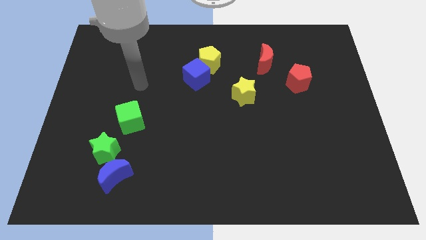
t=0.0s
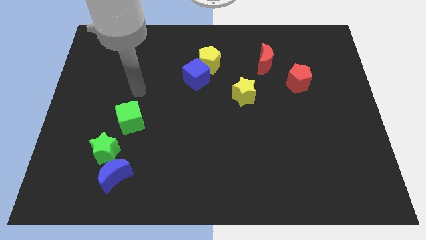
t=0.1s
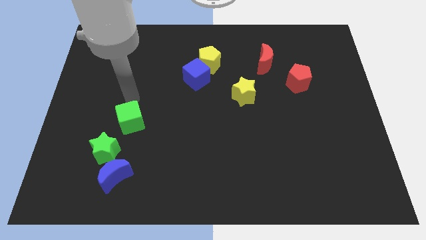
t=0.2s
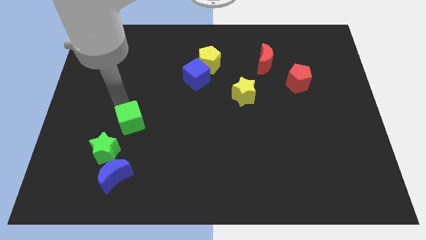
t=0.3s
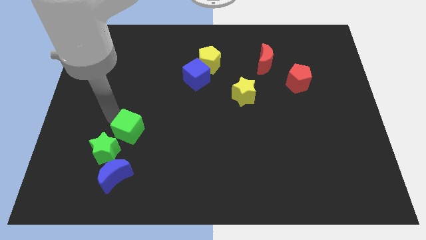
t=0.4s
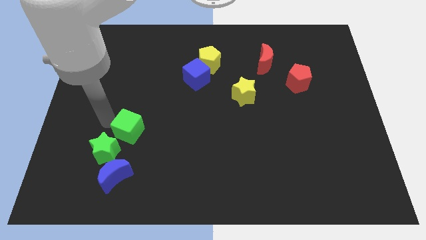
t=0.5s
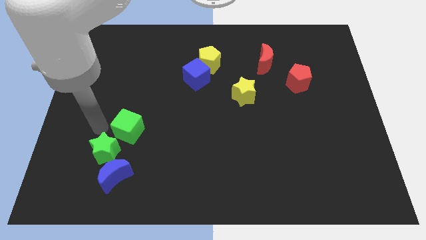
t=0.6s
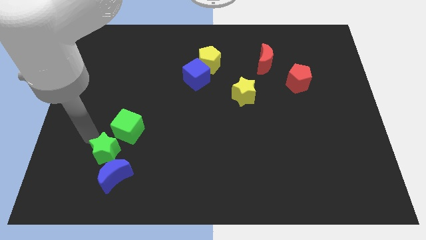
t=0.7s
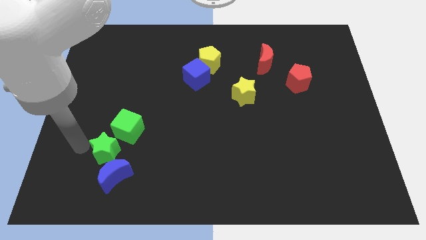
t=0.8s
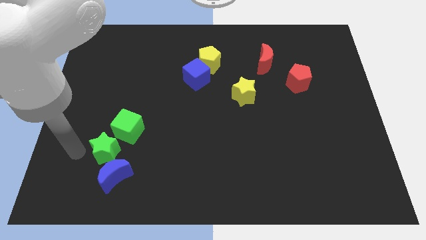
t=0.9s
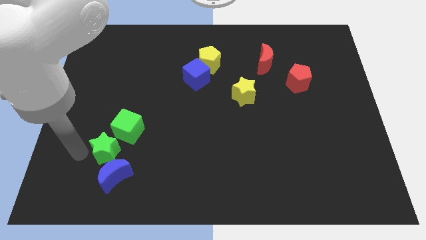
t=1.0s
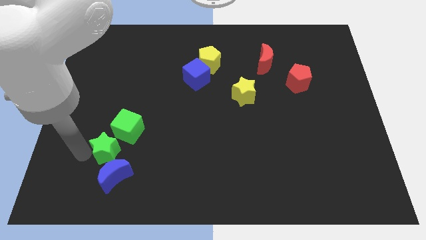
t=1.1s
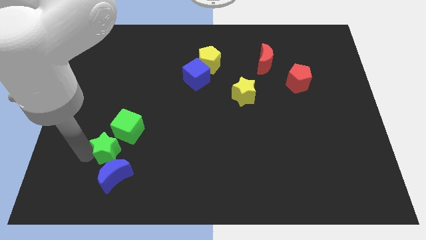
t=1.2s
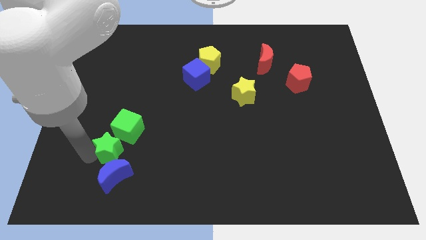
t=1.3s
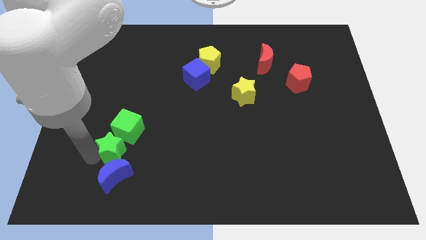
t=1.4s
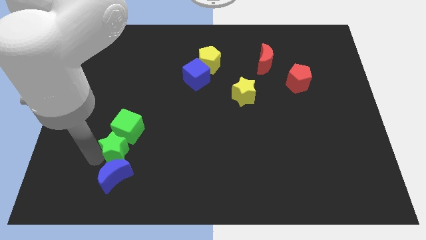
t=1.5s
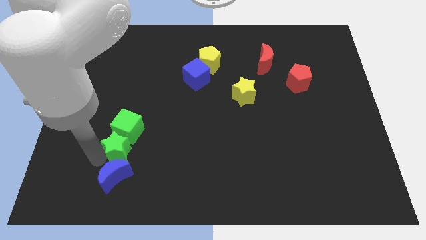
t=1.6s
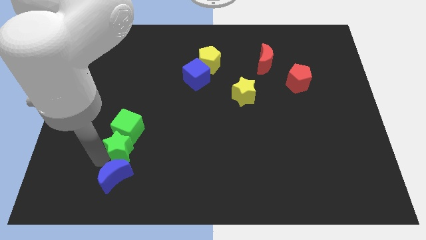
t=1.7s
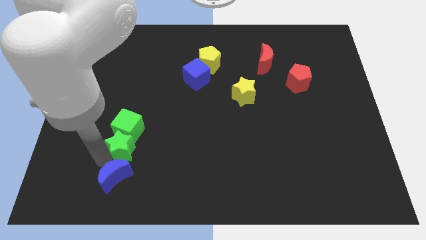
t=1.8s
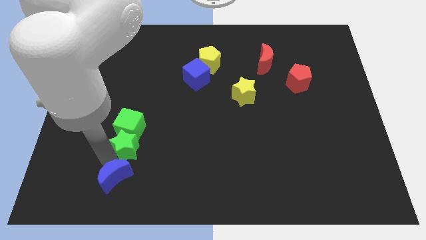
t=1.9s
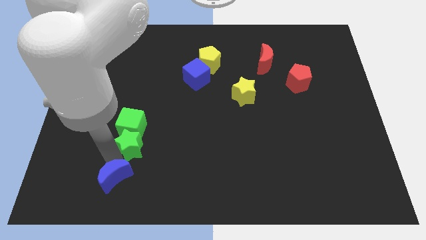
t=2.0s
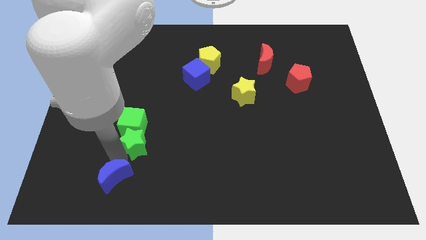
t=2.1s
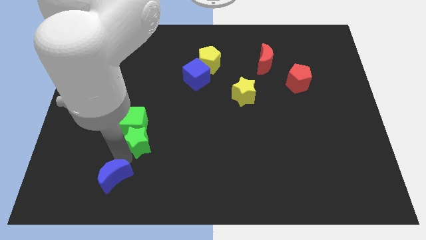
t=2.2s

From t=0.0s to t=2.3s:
slightly push the green star right

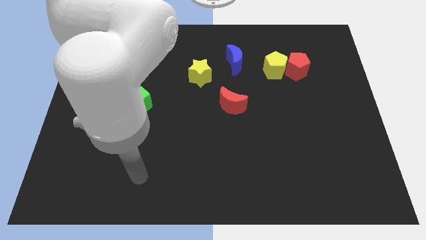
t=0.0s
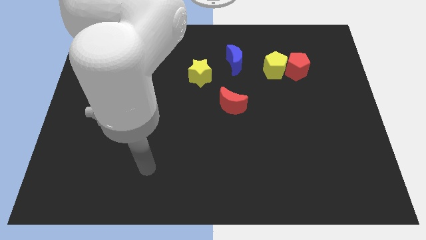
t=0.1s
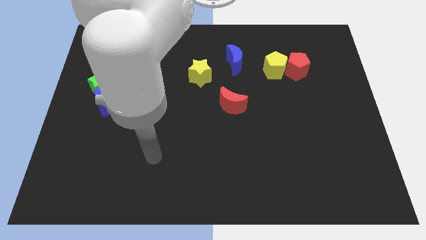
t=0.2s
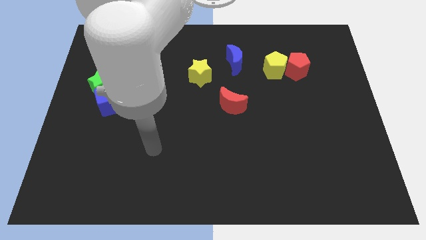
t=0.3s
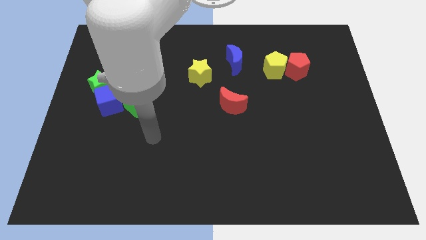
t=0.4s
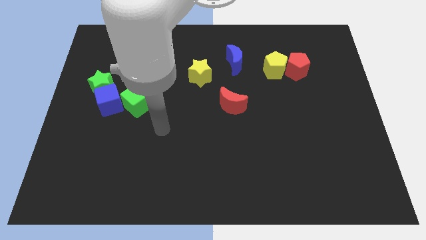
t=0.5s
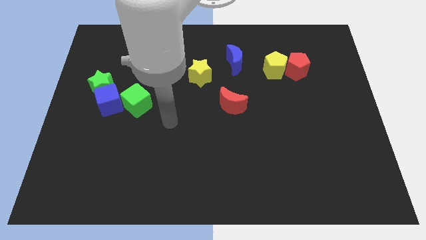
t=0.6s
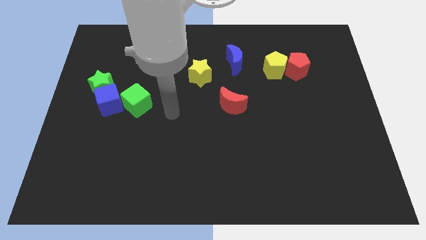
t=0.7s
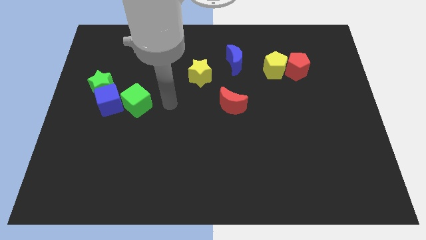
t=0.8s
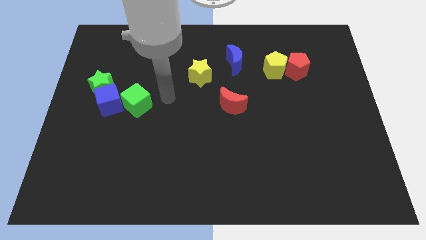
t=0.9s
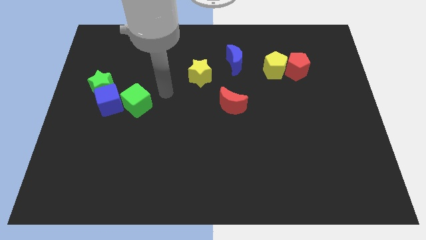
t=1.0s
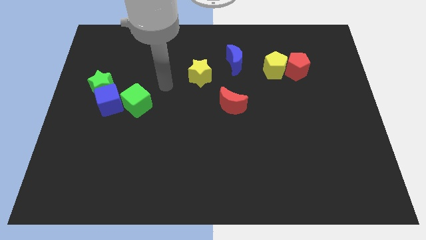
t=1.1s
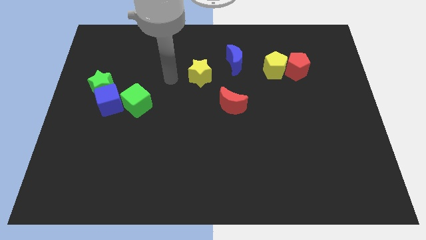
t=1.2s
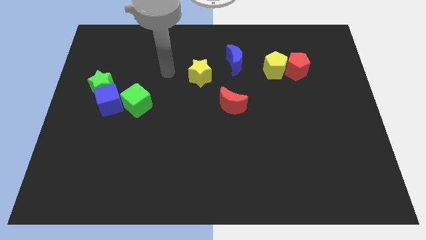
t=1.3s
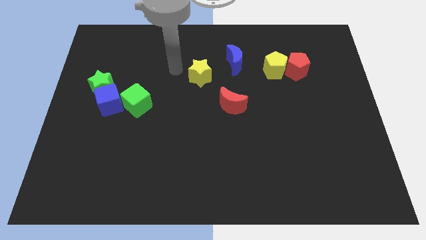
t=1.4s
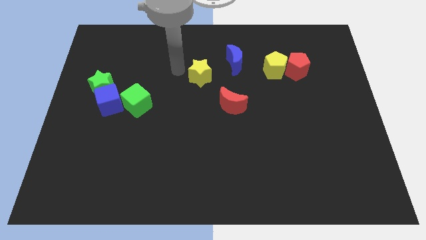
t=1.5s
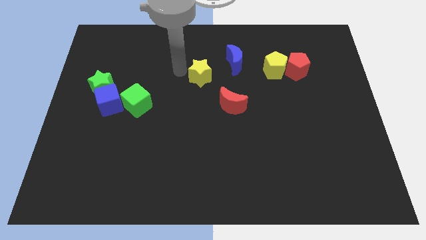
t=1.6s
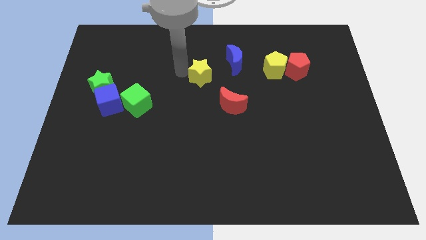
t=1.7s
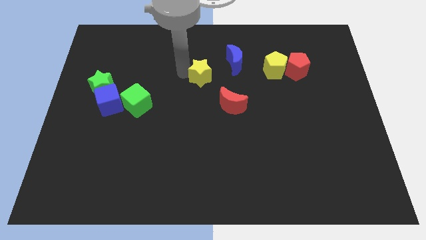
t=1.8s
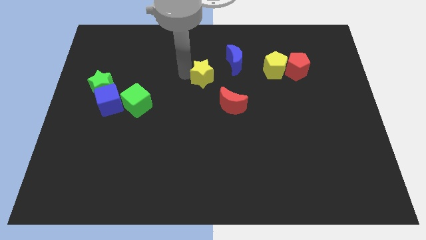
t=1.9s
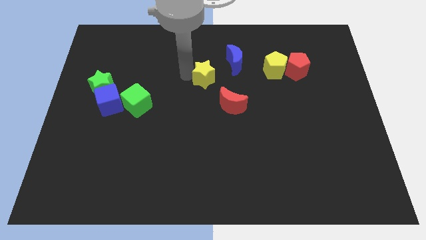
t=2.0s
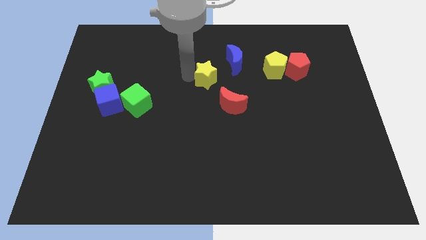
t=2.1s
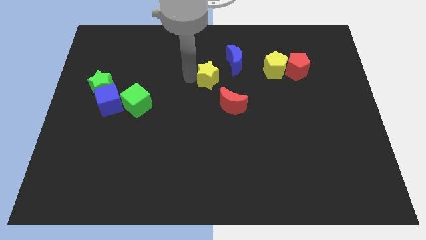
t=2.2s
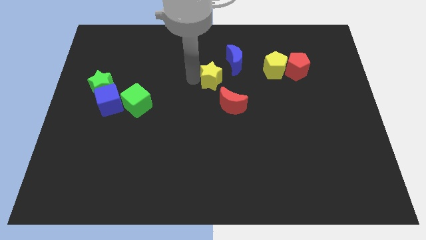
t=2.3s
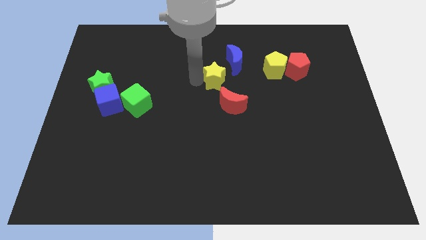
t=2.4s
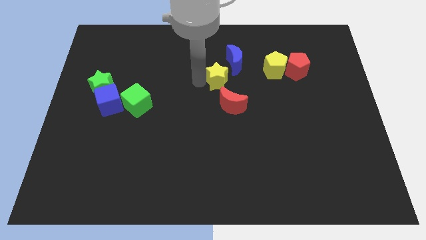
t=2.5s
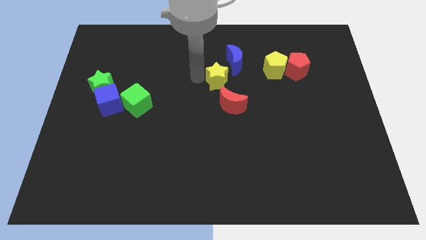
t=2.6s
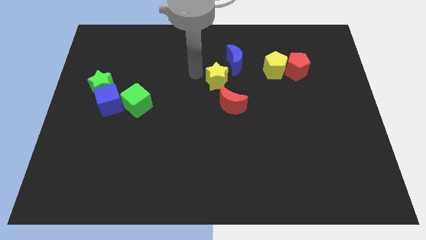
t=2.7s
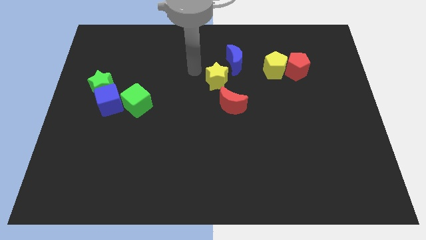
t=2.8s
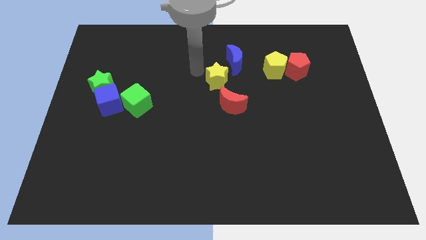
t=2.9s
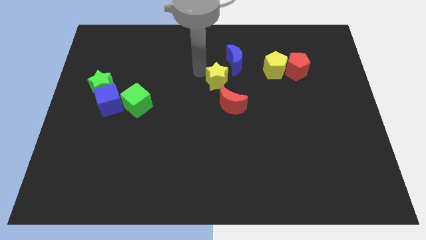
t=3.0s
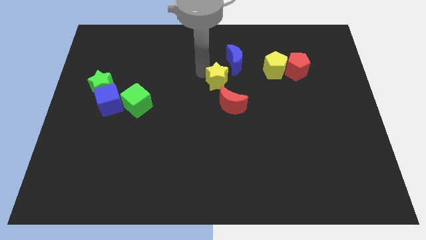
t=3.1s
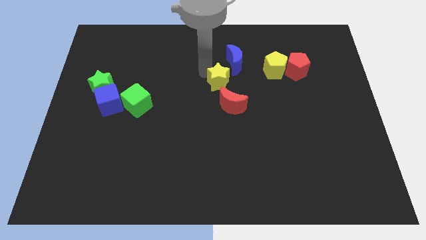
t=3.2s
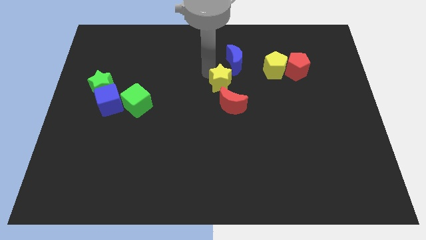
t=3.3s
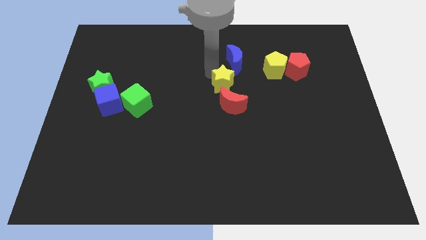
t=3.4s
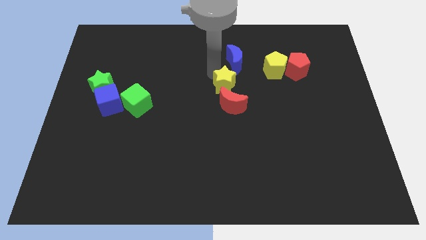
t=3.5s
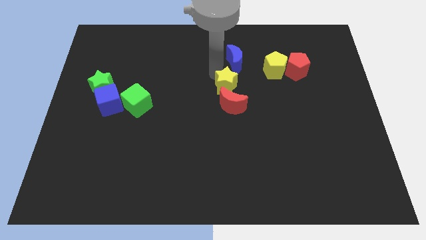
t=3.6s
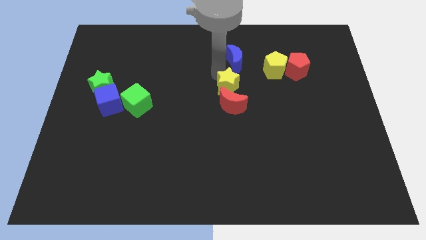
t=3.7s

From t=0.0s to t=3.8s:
slightly move the yellow star diagonally downwards and to the right

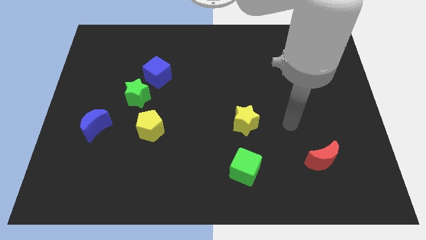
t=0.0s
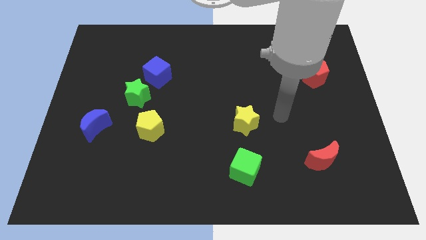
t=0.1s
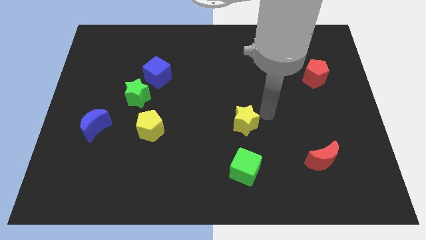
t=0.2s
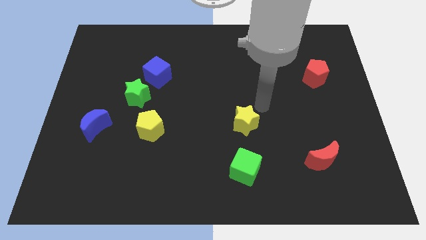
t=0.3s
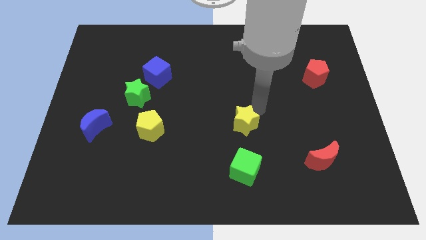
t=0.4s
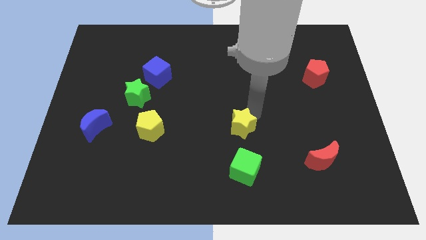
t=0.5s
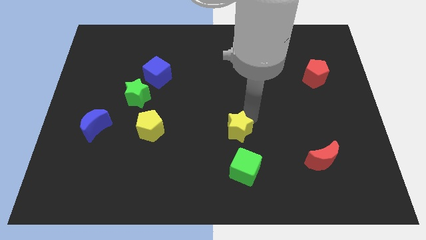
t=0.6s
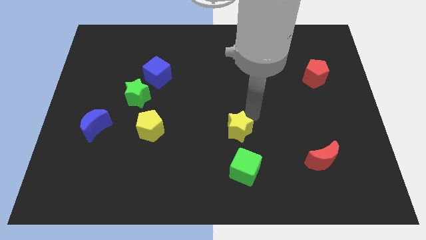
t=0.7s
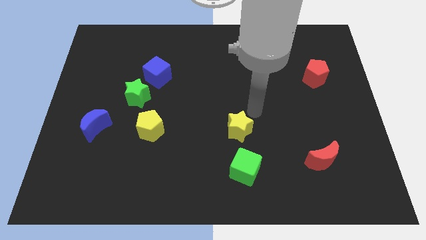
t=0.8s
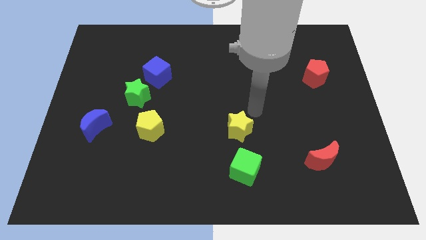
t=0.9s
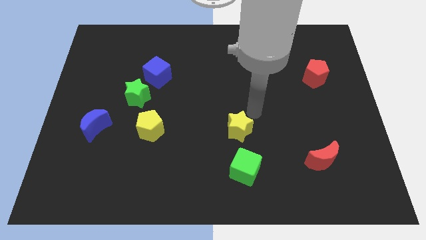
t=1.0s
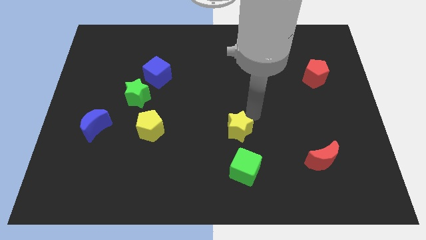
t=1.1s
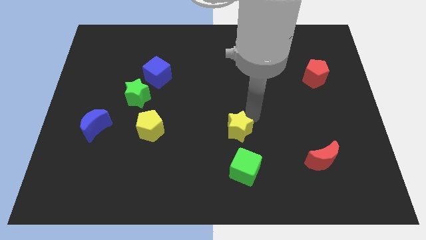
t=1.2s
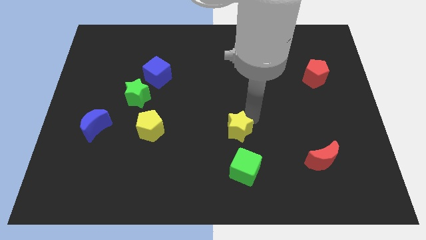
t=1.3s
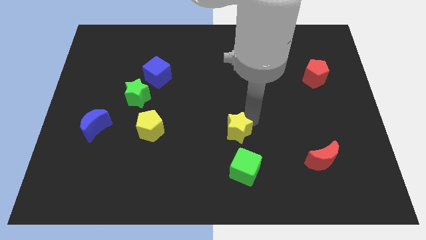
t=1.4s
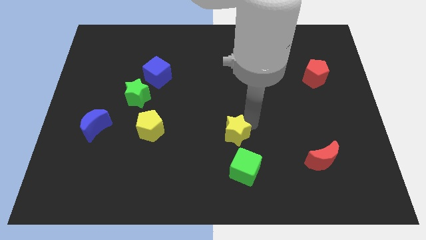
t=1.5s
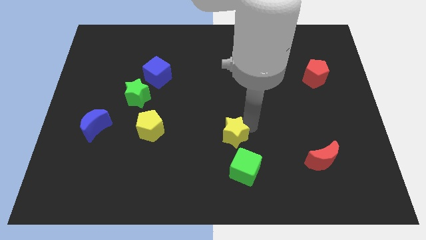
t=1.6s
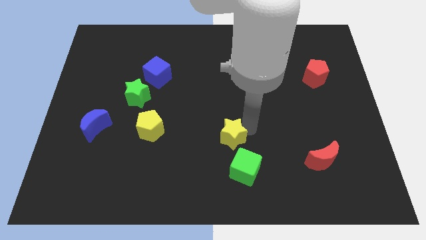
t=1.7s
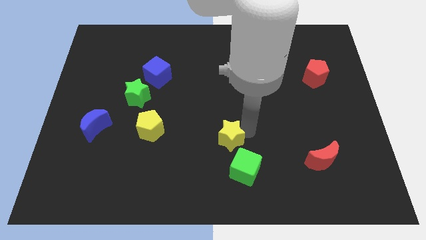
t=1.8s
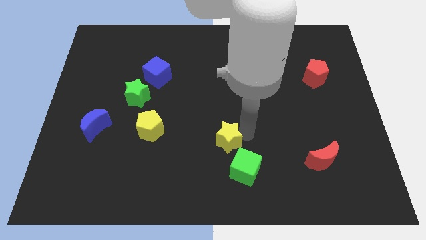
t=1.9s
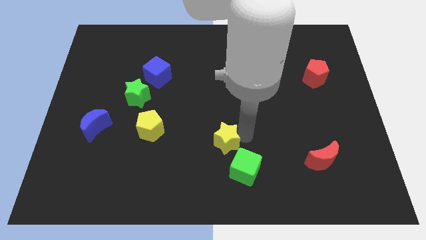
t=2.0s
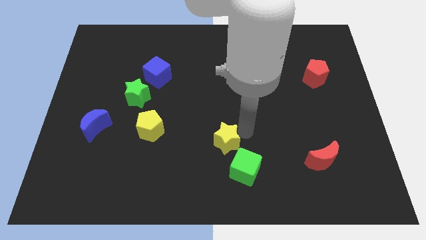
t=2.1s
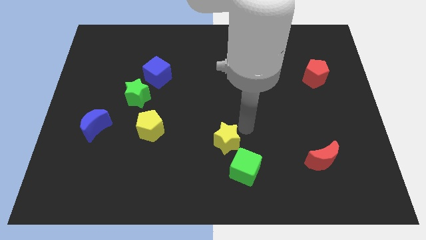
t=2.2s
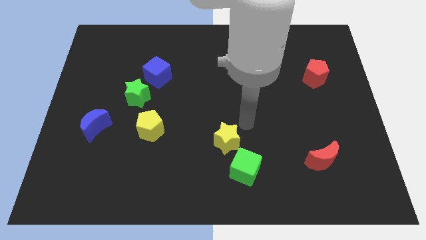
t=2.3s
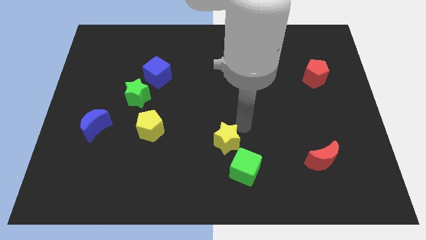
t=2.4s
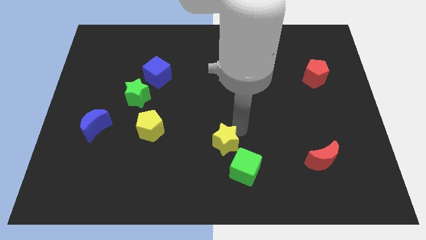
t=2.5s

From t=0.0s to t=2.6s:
move the yellow star down and then left a little
